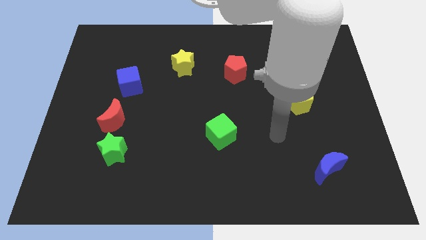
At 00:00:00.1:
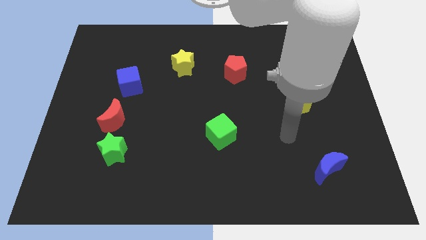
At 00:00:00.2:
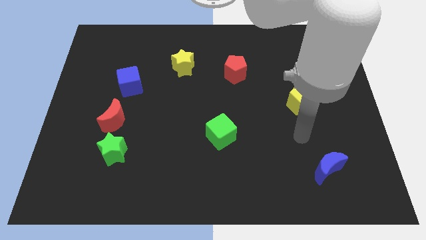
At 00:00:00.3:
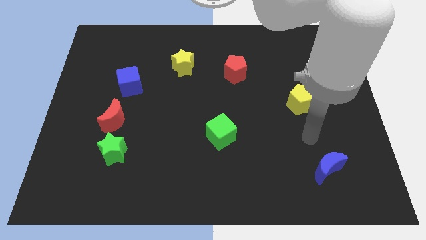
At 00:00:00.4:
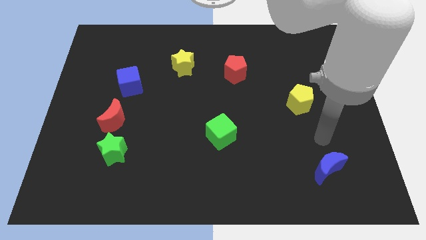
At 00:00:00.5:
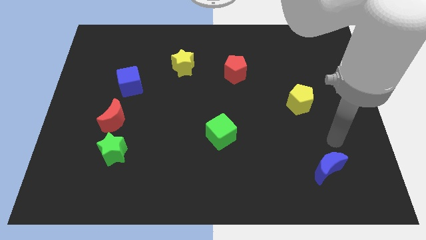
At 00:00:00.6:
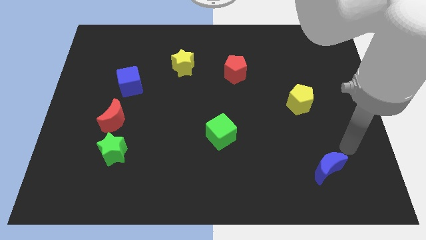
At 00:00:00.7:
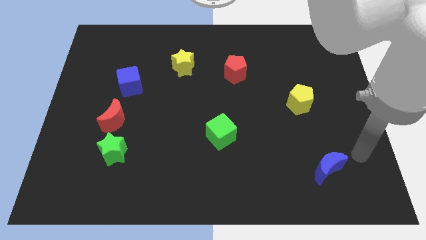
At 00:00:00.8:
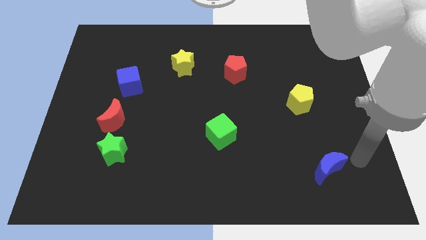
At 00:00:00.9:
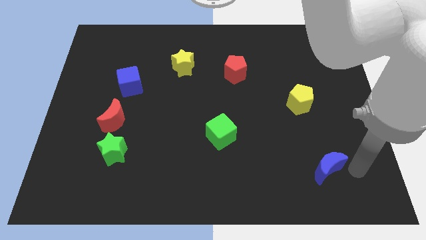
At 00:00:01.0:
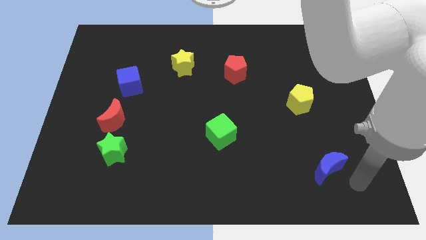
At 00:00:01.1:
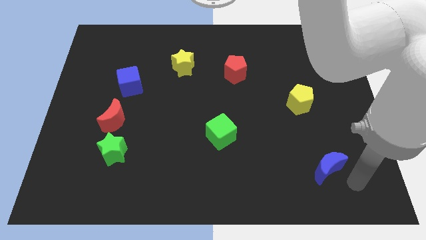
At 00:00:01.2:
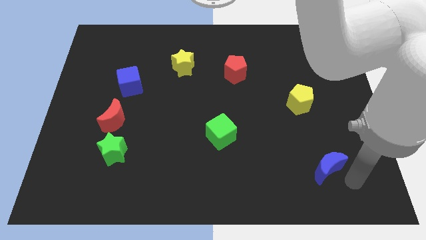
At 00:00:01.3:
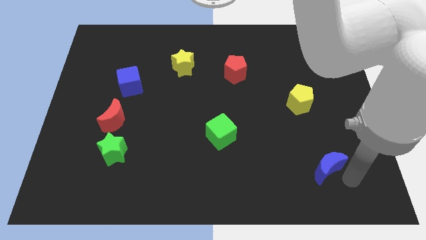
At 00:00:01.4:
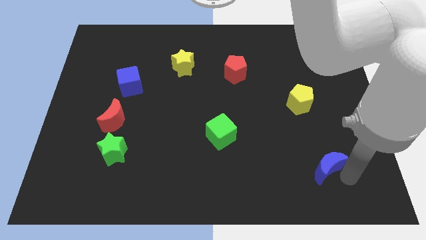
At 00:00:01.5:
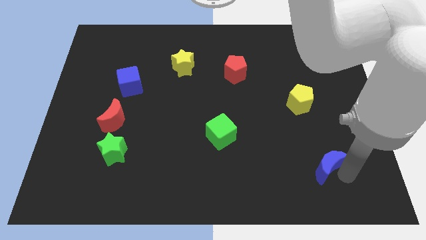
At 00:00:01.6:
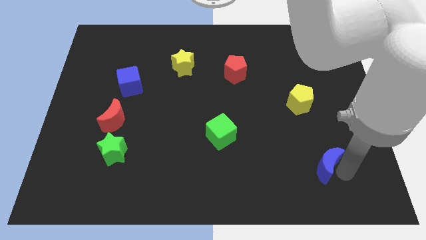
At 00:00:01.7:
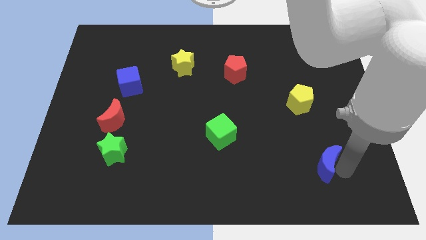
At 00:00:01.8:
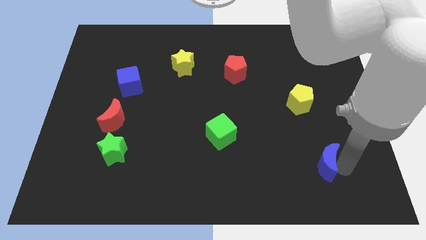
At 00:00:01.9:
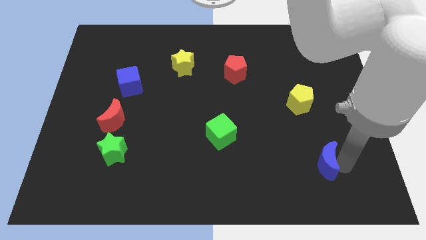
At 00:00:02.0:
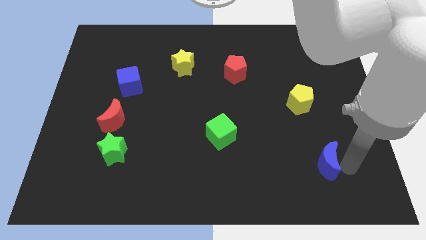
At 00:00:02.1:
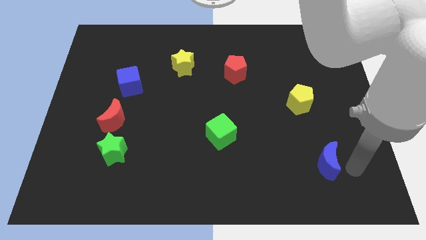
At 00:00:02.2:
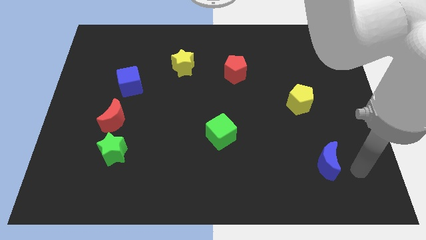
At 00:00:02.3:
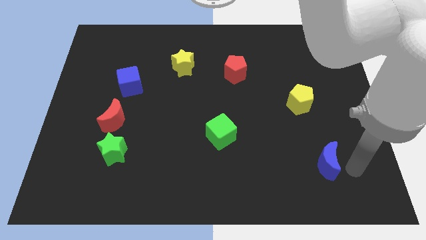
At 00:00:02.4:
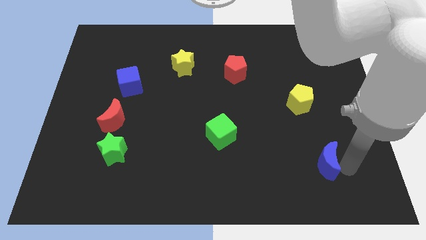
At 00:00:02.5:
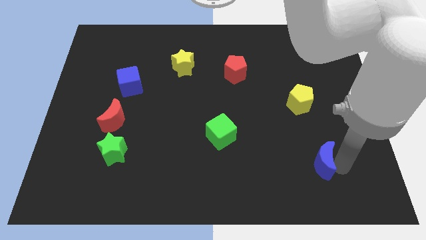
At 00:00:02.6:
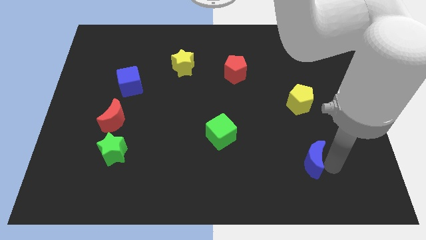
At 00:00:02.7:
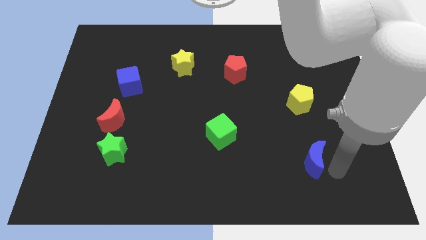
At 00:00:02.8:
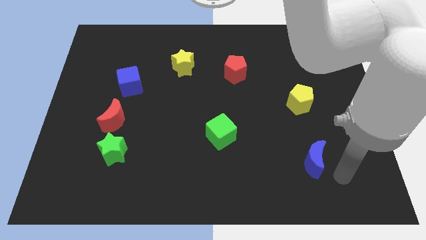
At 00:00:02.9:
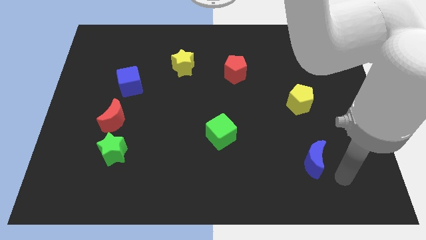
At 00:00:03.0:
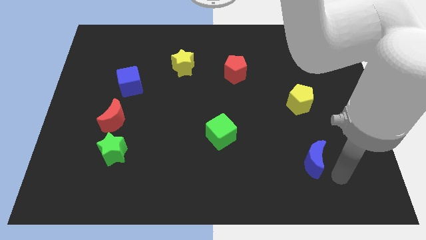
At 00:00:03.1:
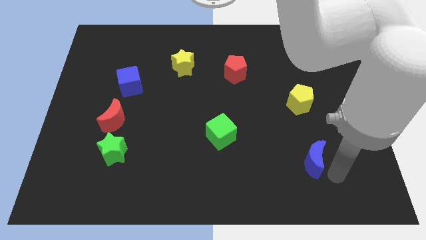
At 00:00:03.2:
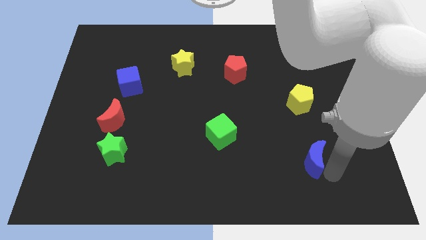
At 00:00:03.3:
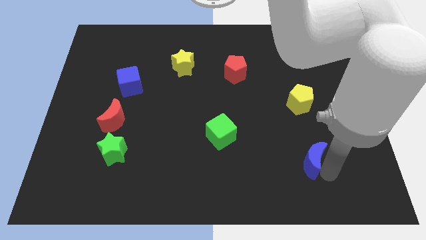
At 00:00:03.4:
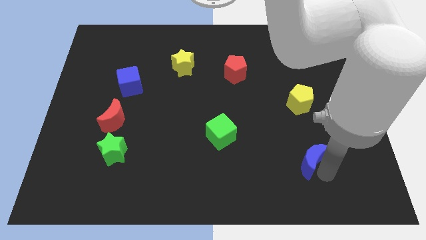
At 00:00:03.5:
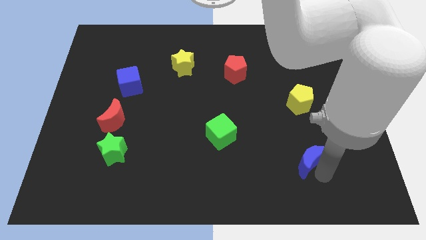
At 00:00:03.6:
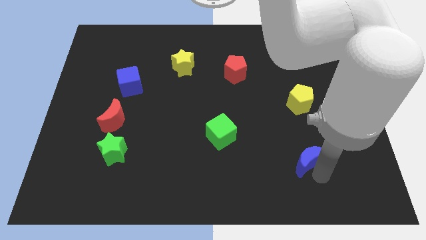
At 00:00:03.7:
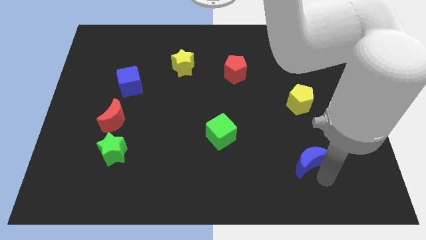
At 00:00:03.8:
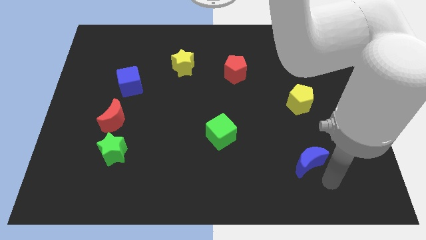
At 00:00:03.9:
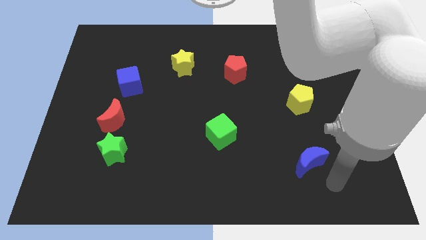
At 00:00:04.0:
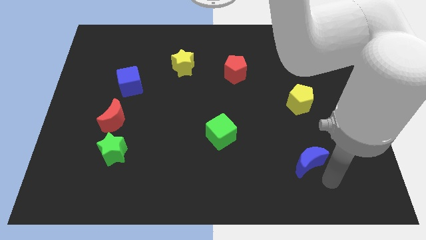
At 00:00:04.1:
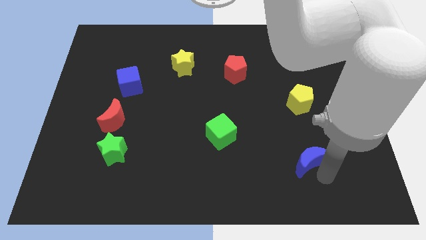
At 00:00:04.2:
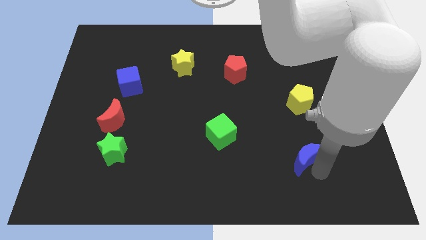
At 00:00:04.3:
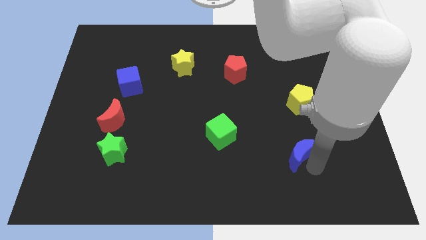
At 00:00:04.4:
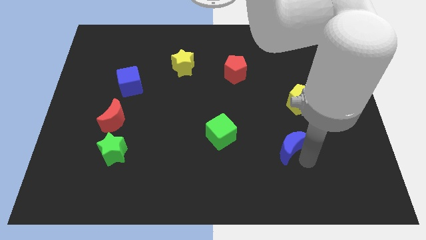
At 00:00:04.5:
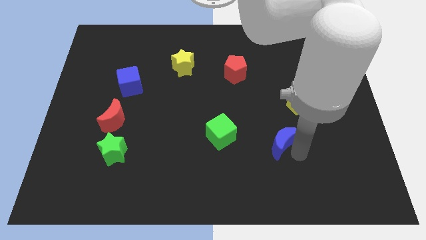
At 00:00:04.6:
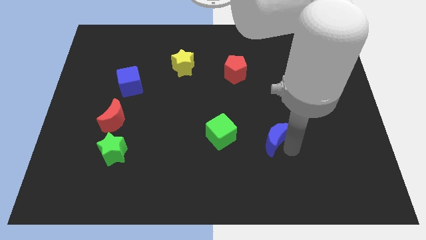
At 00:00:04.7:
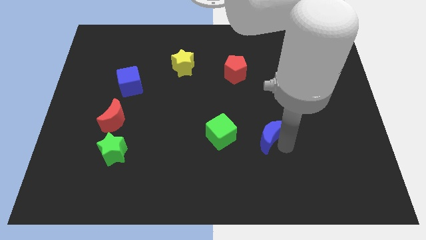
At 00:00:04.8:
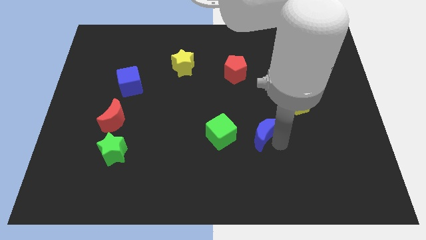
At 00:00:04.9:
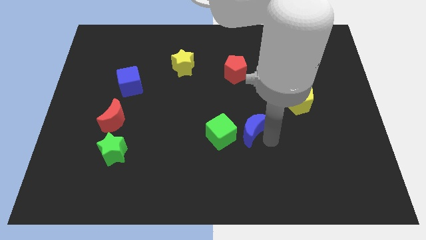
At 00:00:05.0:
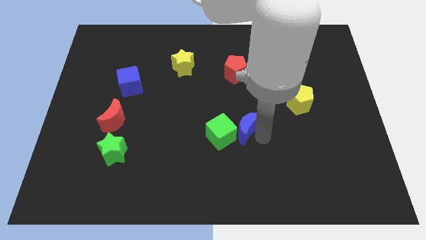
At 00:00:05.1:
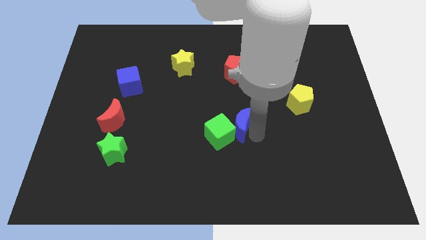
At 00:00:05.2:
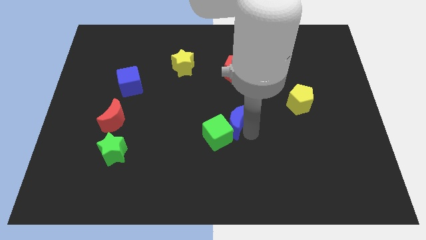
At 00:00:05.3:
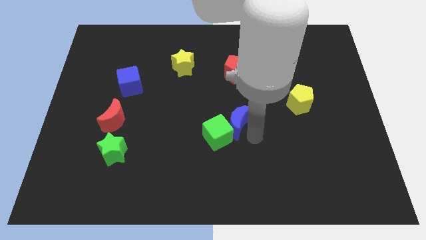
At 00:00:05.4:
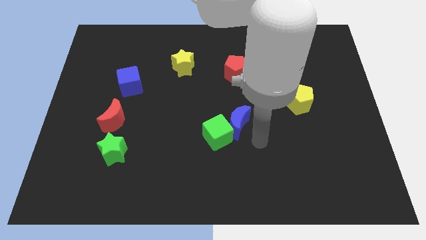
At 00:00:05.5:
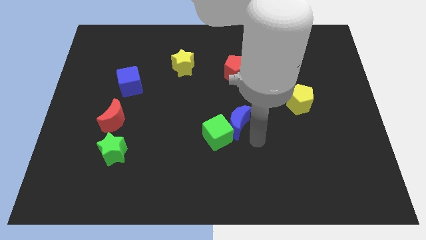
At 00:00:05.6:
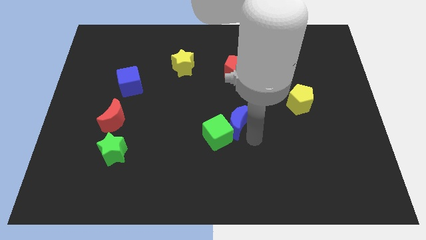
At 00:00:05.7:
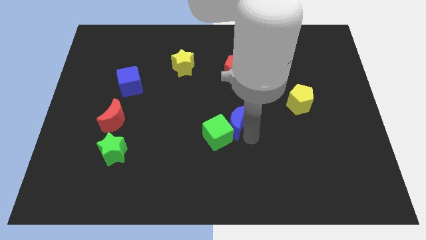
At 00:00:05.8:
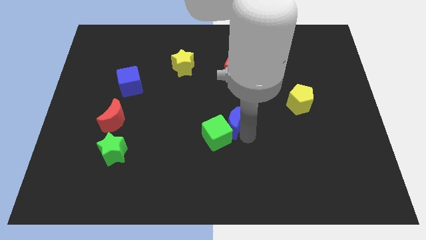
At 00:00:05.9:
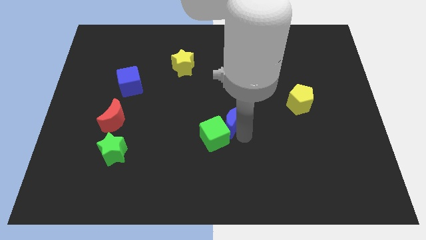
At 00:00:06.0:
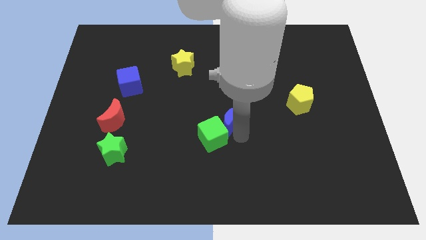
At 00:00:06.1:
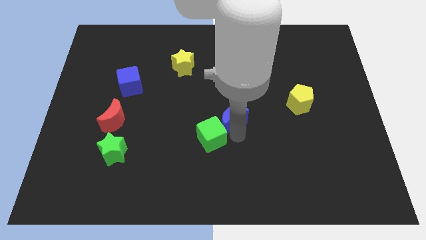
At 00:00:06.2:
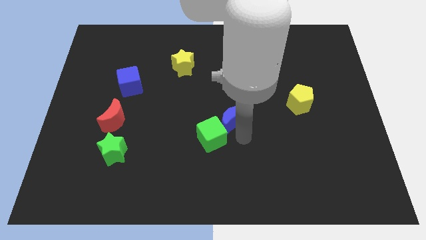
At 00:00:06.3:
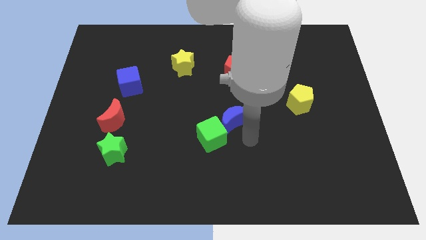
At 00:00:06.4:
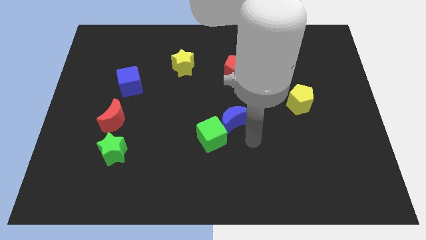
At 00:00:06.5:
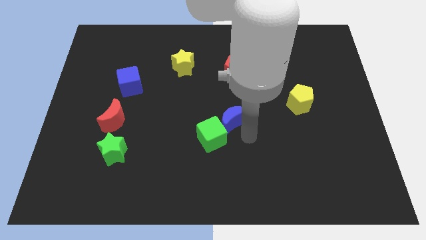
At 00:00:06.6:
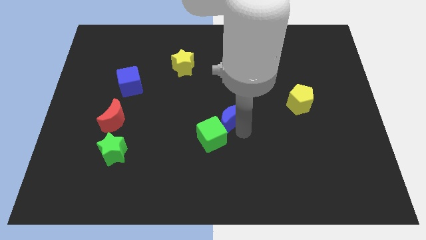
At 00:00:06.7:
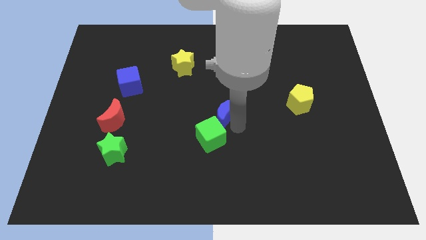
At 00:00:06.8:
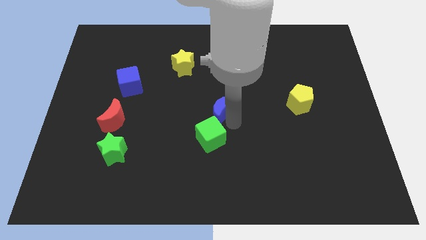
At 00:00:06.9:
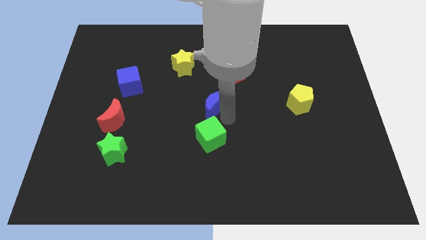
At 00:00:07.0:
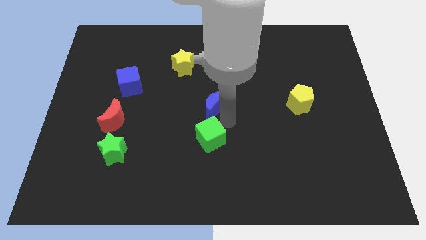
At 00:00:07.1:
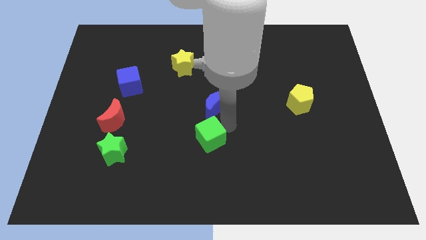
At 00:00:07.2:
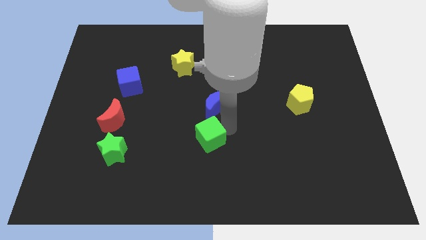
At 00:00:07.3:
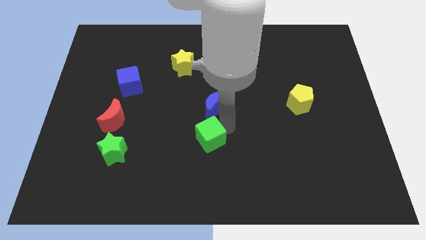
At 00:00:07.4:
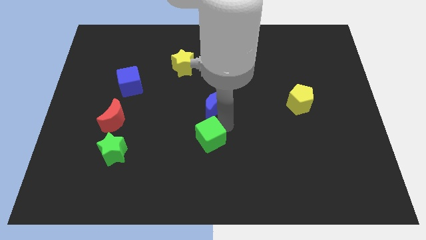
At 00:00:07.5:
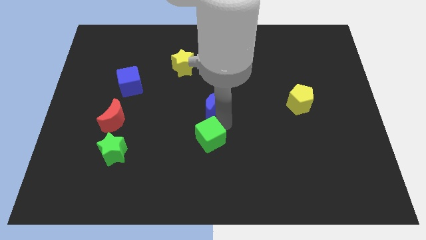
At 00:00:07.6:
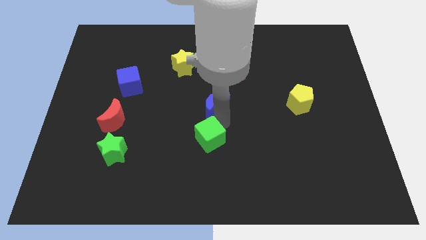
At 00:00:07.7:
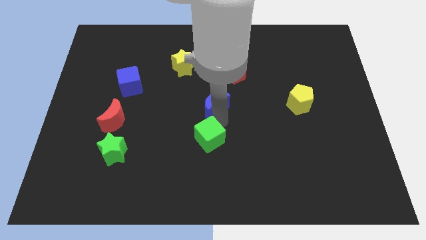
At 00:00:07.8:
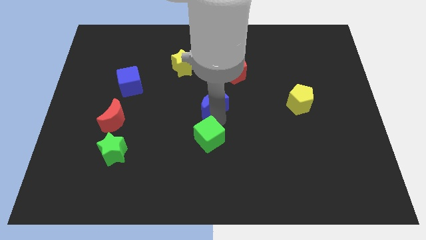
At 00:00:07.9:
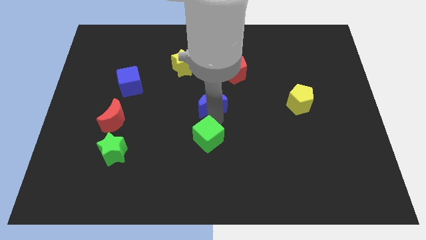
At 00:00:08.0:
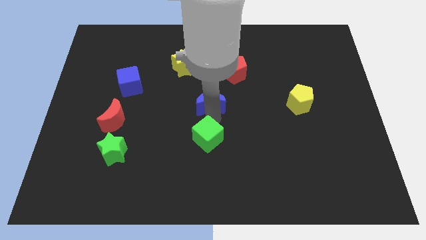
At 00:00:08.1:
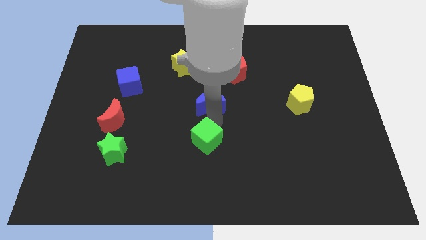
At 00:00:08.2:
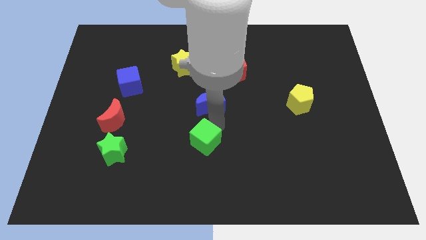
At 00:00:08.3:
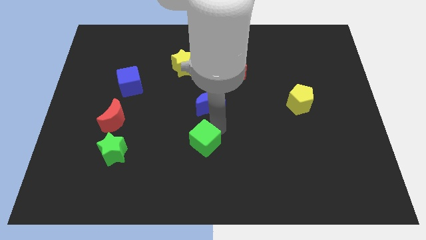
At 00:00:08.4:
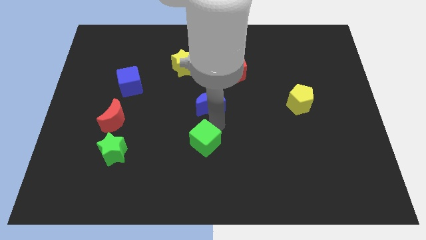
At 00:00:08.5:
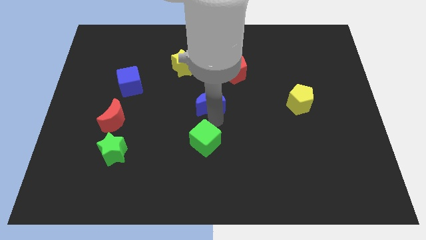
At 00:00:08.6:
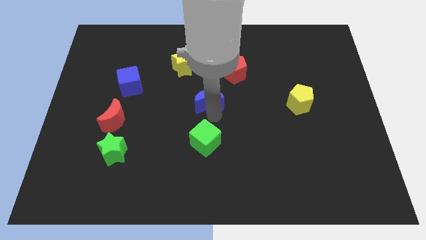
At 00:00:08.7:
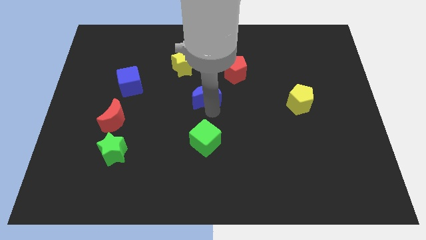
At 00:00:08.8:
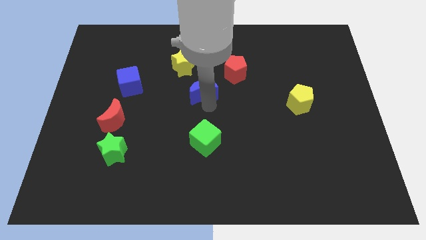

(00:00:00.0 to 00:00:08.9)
move the blue moon diagonally down and to the right of the yellow star
